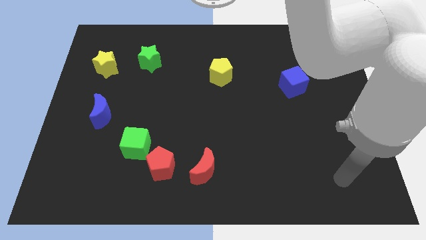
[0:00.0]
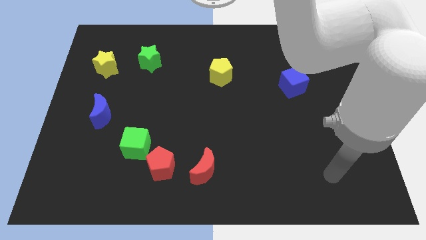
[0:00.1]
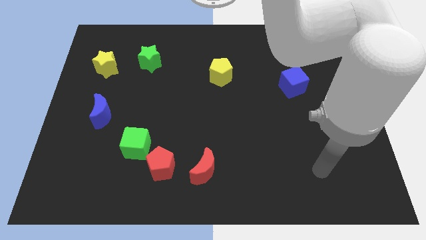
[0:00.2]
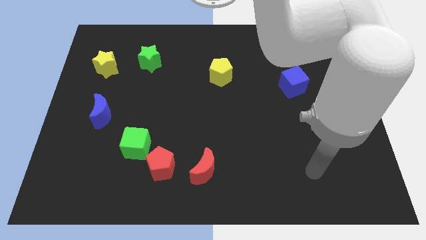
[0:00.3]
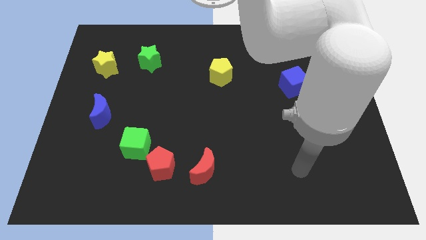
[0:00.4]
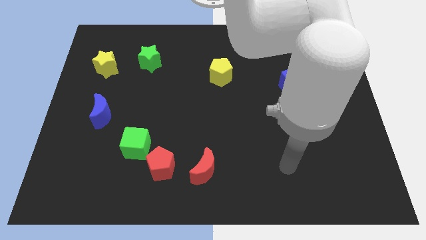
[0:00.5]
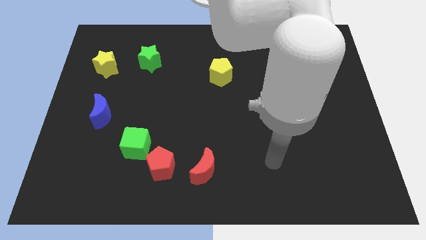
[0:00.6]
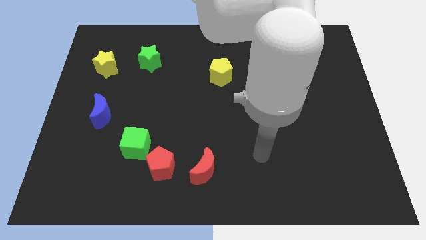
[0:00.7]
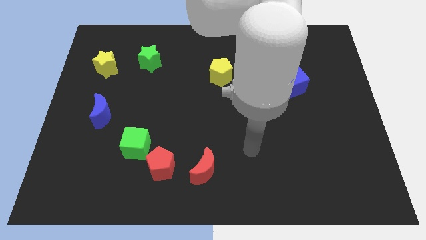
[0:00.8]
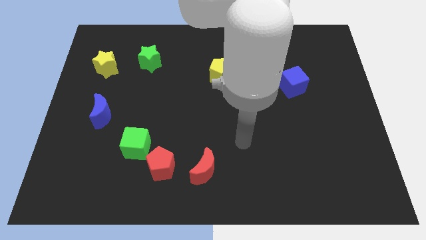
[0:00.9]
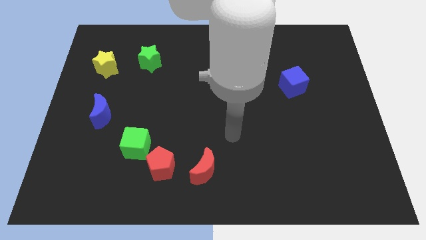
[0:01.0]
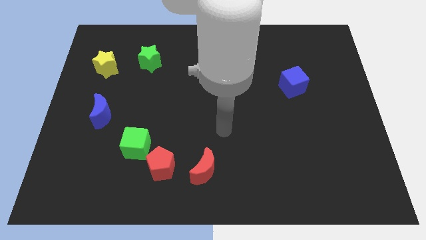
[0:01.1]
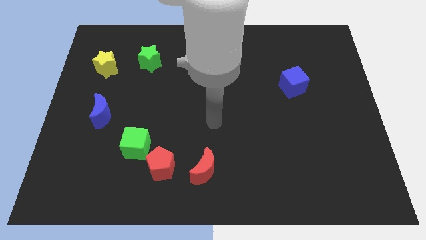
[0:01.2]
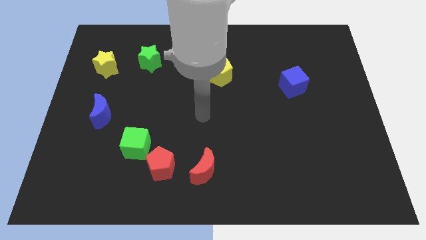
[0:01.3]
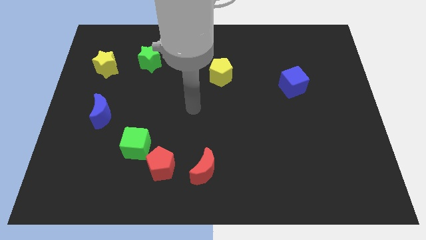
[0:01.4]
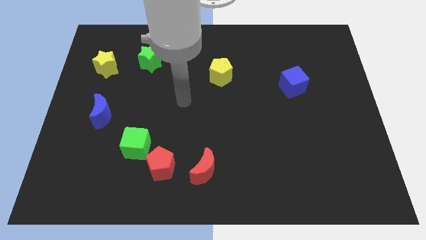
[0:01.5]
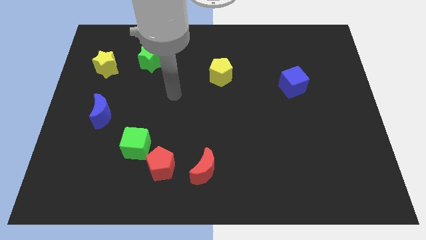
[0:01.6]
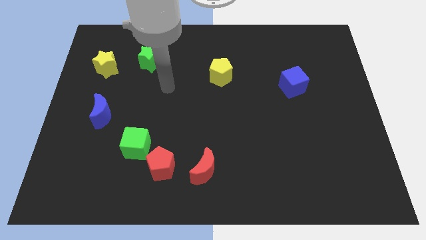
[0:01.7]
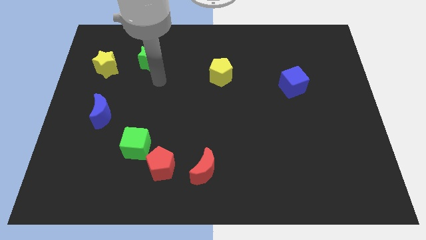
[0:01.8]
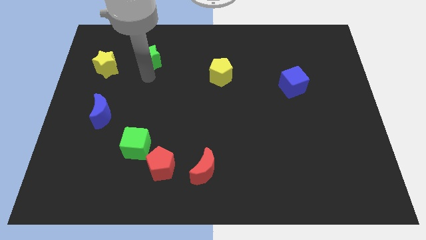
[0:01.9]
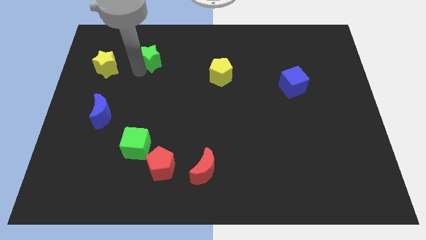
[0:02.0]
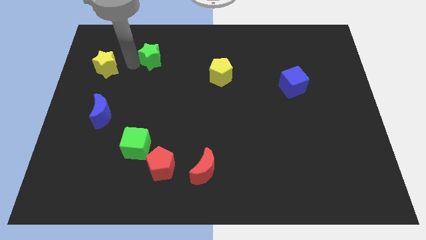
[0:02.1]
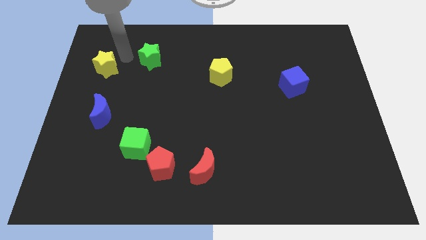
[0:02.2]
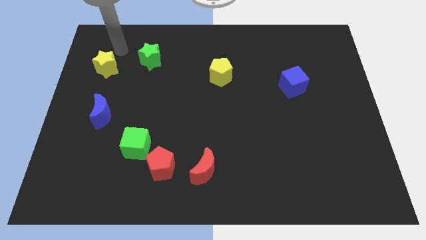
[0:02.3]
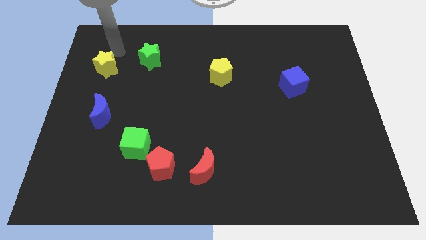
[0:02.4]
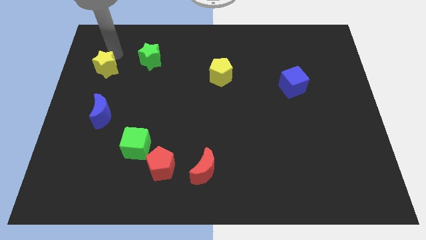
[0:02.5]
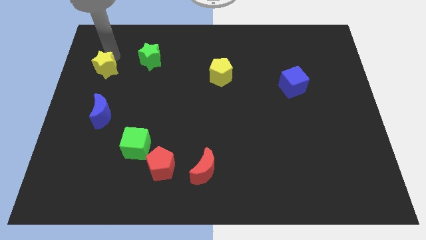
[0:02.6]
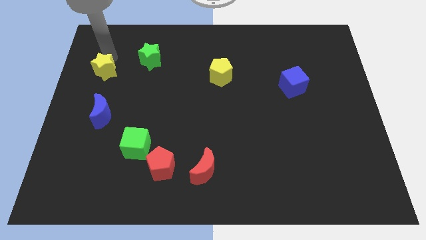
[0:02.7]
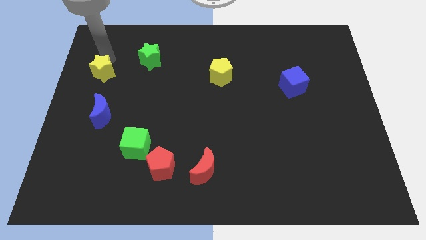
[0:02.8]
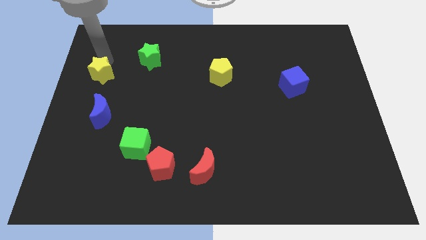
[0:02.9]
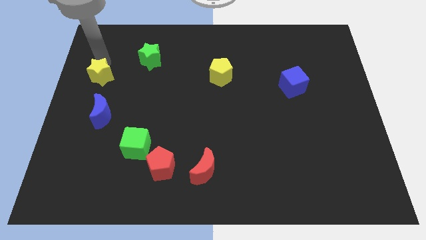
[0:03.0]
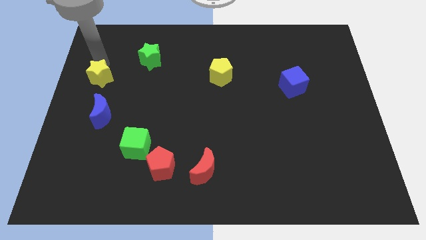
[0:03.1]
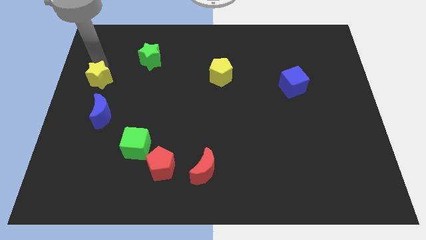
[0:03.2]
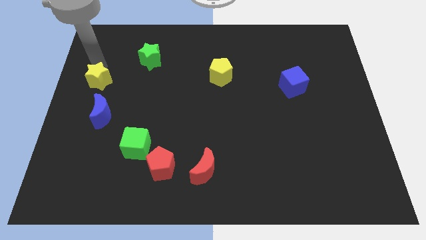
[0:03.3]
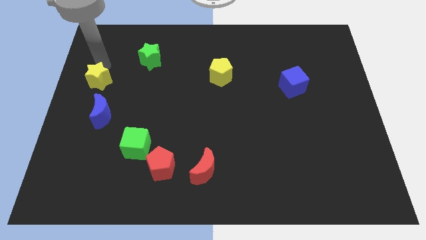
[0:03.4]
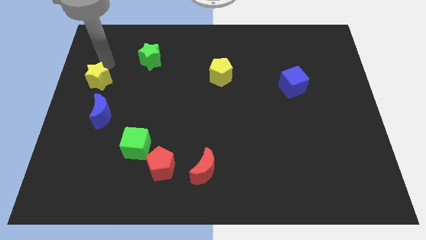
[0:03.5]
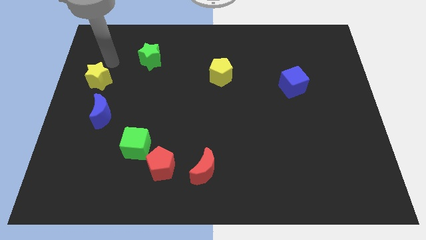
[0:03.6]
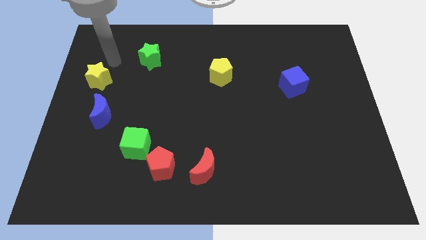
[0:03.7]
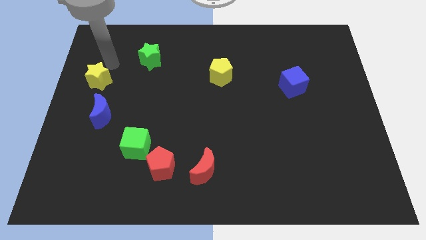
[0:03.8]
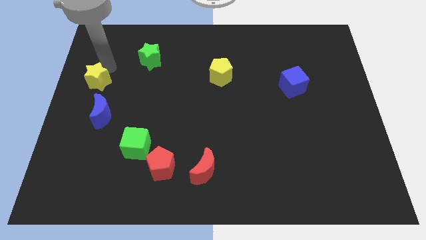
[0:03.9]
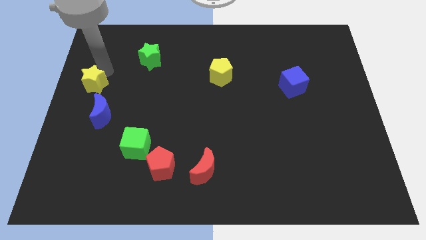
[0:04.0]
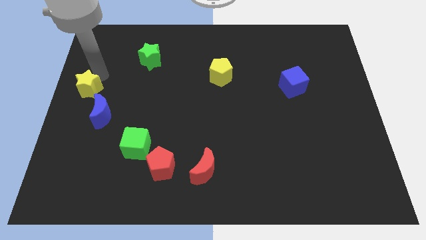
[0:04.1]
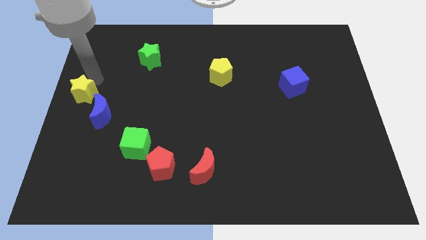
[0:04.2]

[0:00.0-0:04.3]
slide the yellow star a little bit down

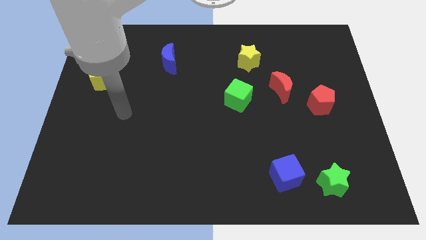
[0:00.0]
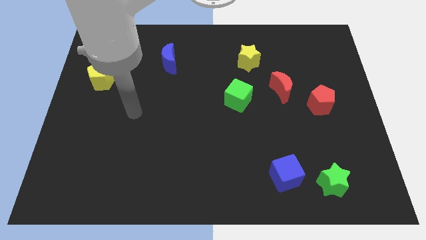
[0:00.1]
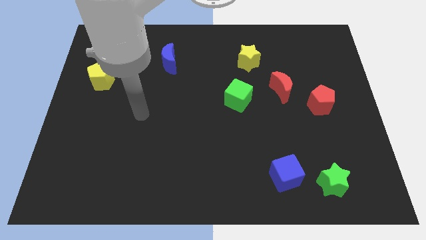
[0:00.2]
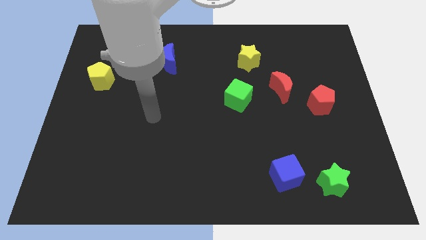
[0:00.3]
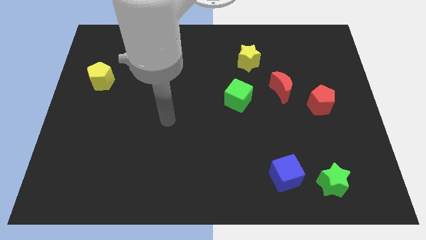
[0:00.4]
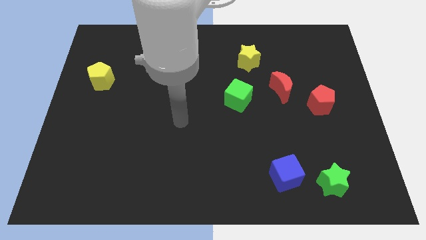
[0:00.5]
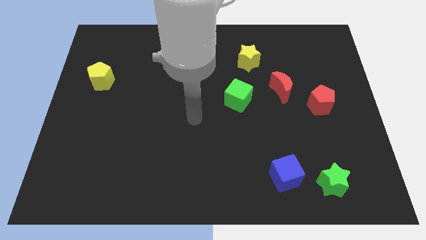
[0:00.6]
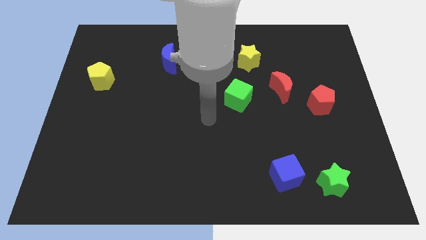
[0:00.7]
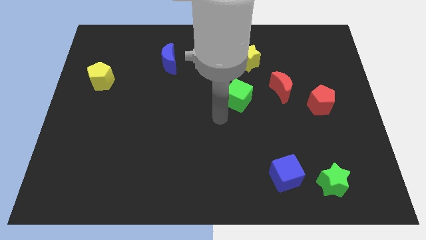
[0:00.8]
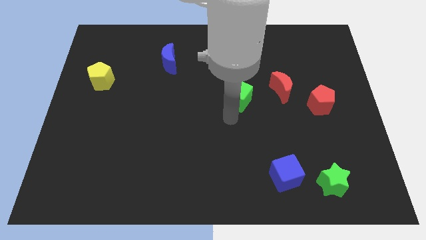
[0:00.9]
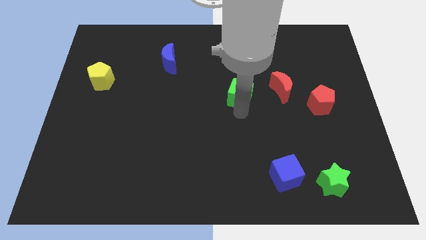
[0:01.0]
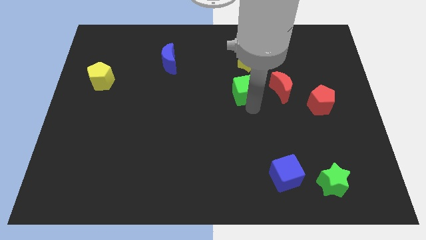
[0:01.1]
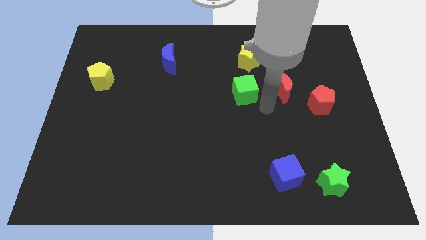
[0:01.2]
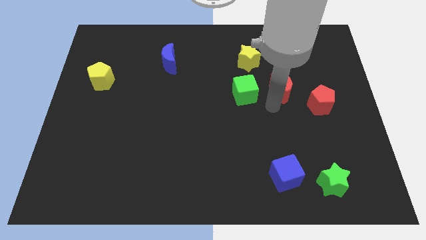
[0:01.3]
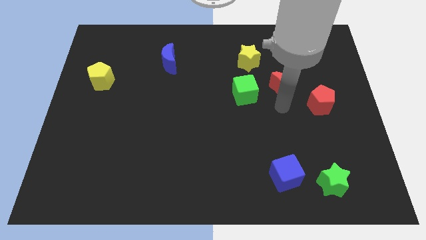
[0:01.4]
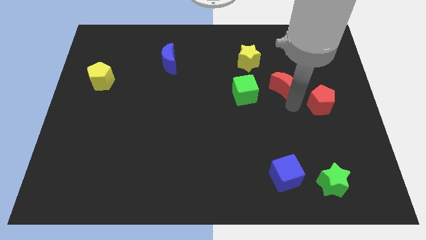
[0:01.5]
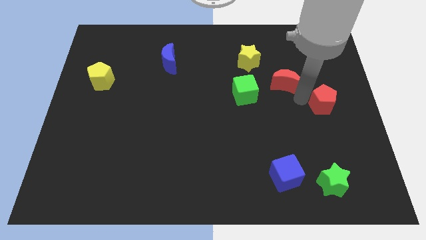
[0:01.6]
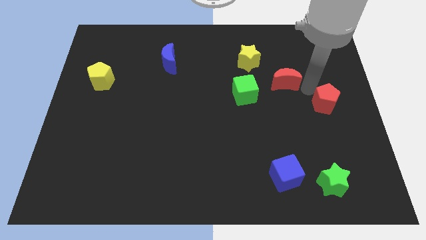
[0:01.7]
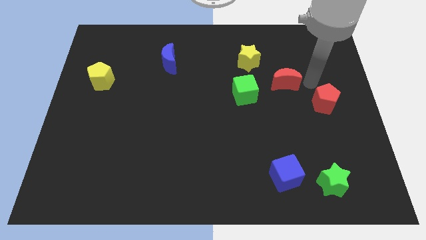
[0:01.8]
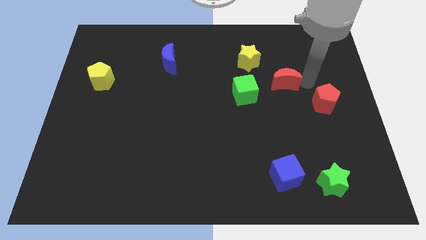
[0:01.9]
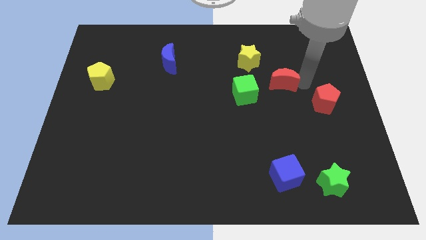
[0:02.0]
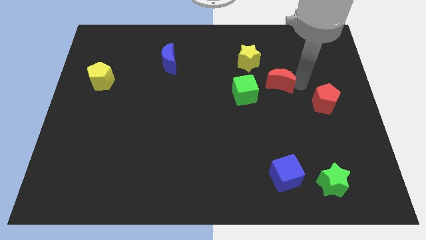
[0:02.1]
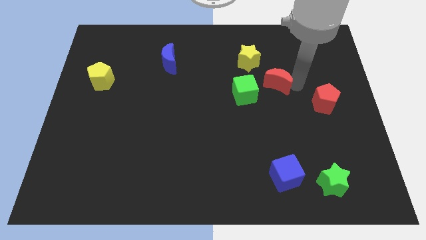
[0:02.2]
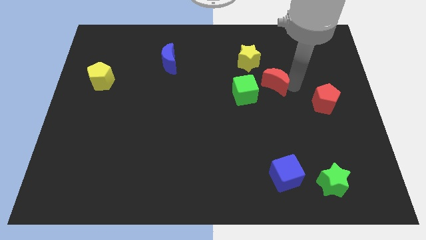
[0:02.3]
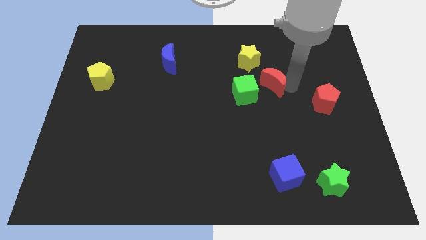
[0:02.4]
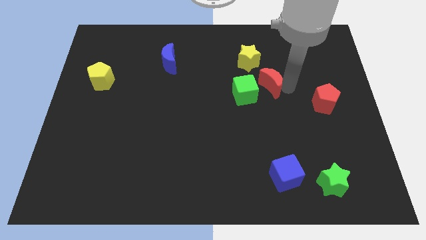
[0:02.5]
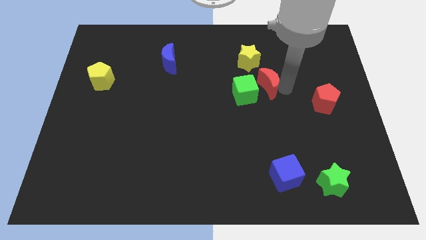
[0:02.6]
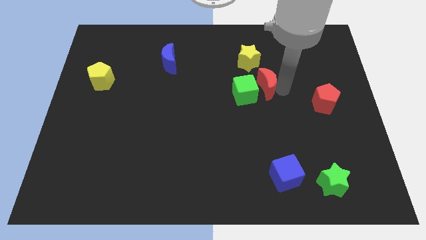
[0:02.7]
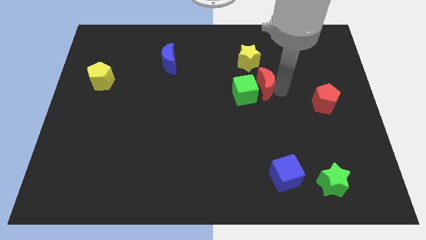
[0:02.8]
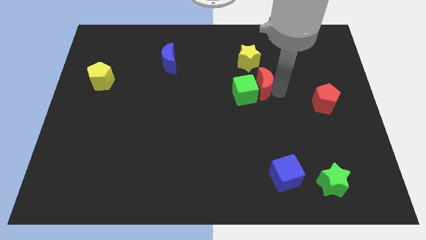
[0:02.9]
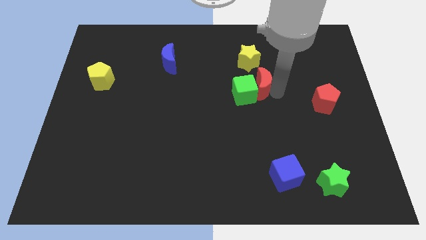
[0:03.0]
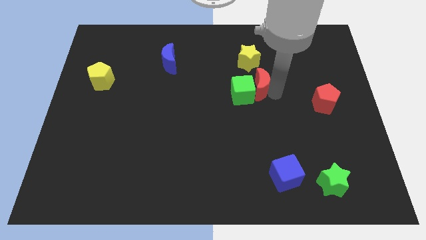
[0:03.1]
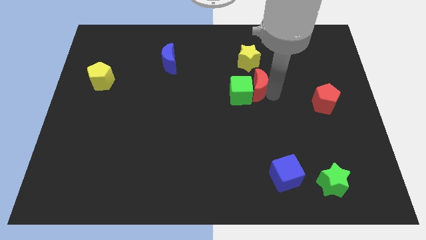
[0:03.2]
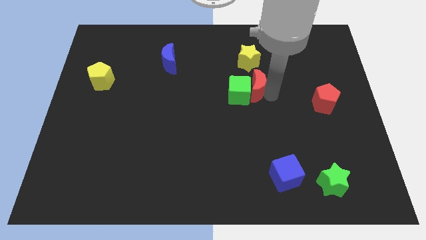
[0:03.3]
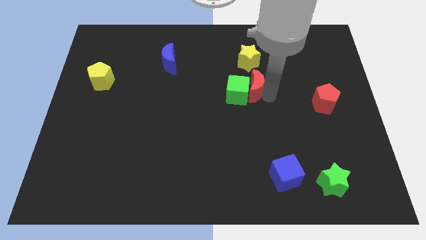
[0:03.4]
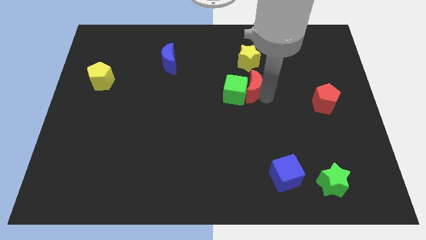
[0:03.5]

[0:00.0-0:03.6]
push the red moon slightly to the left
